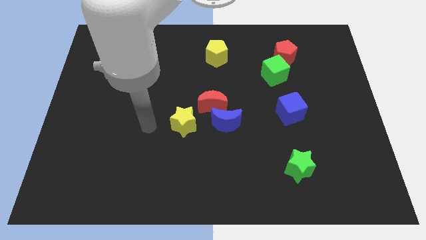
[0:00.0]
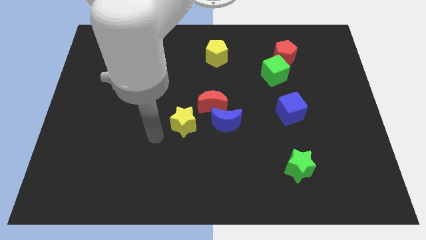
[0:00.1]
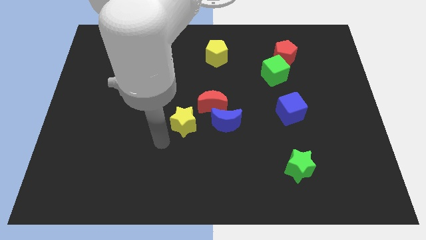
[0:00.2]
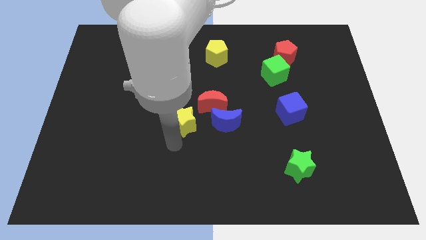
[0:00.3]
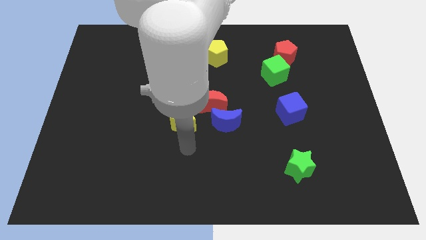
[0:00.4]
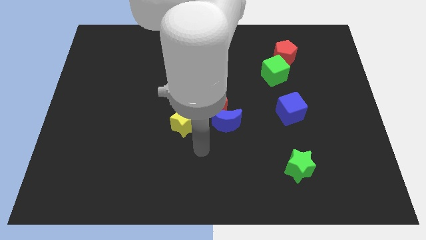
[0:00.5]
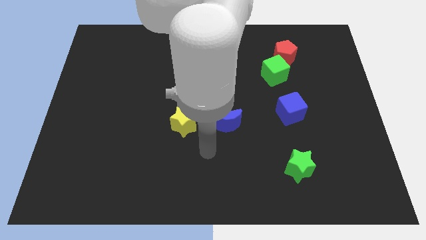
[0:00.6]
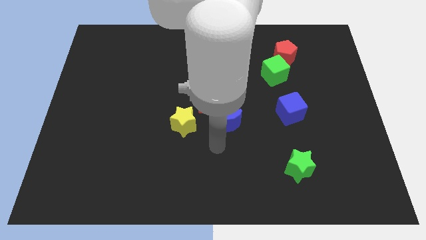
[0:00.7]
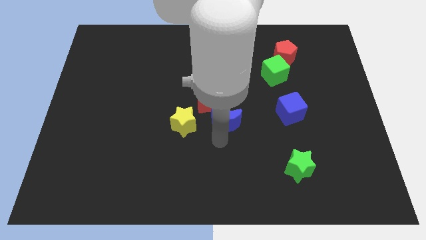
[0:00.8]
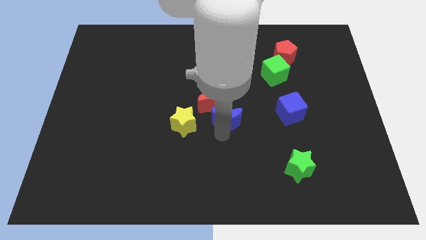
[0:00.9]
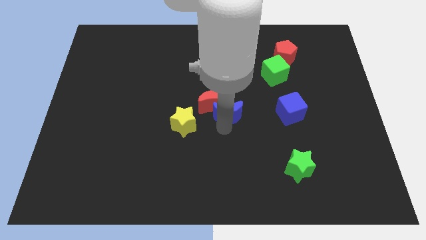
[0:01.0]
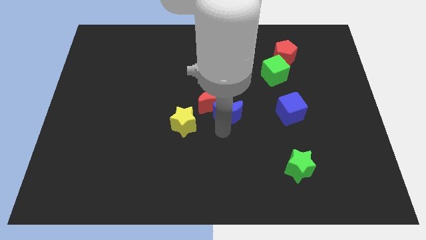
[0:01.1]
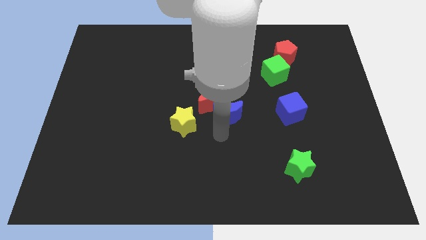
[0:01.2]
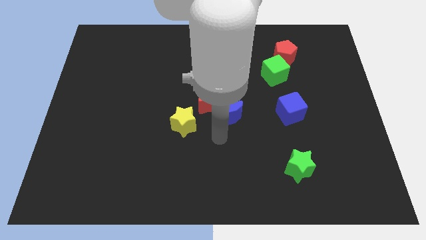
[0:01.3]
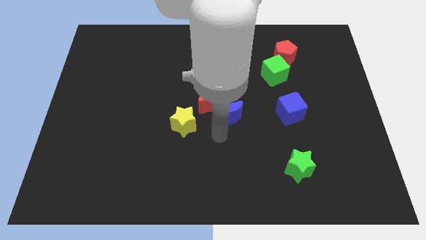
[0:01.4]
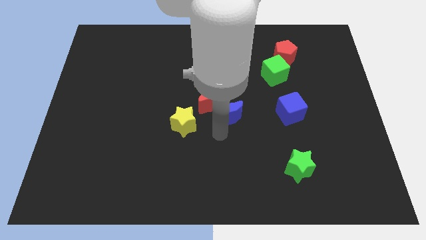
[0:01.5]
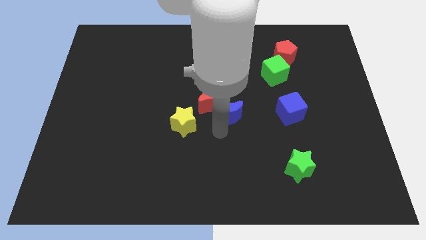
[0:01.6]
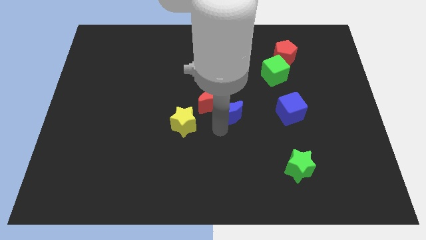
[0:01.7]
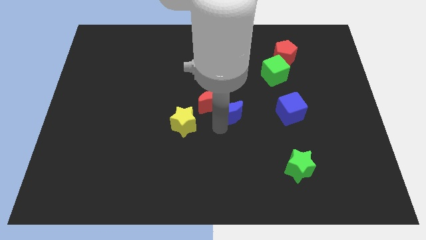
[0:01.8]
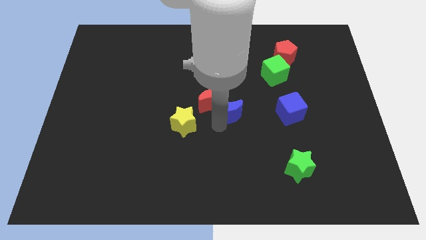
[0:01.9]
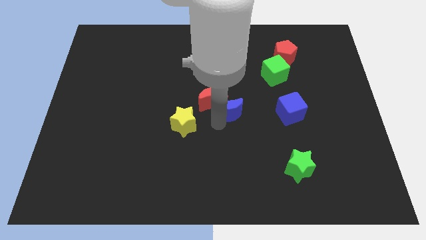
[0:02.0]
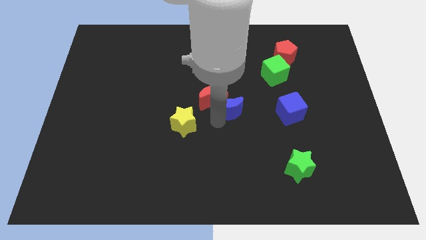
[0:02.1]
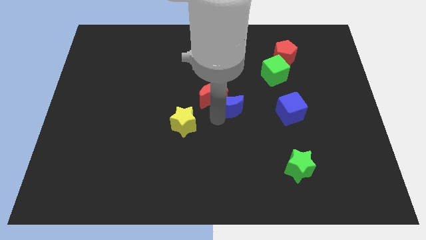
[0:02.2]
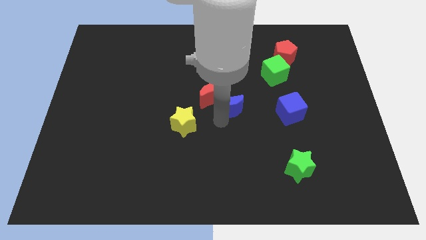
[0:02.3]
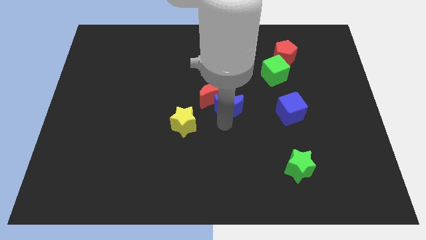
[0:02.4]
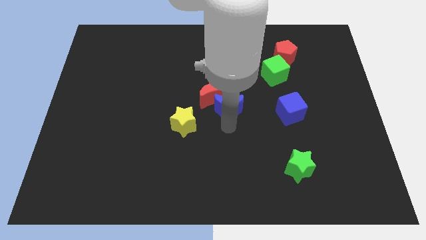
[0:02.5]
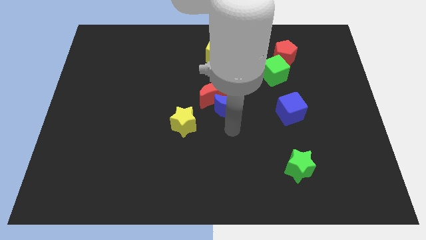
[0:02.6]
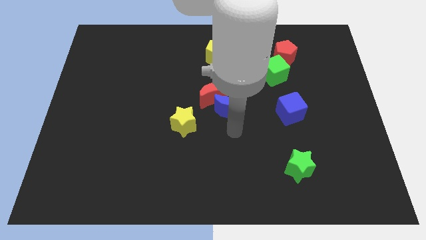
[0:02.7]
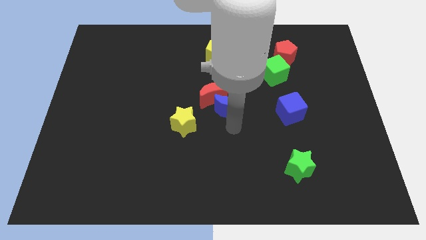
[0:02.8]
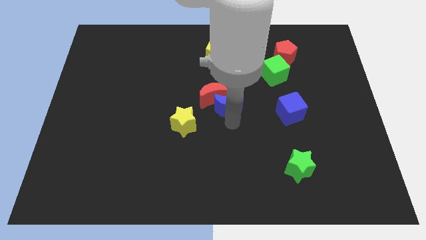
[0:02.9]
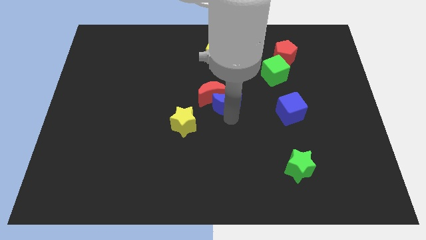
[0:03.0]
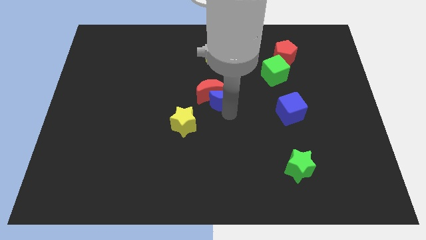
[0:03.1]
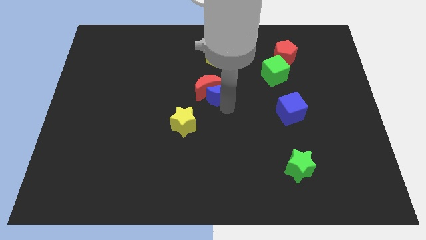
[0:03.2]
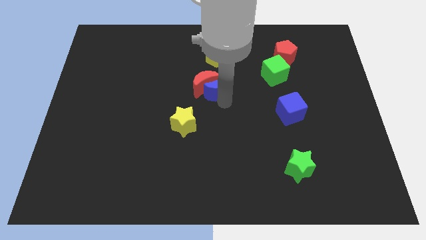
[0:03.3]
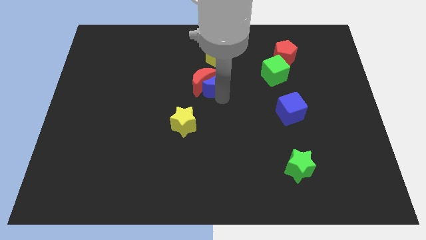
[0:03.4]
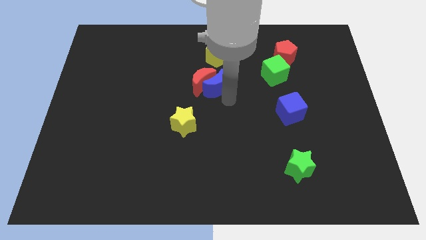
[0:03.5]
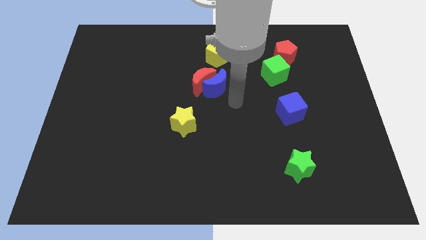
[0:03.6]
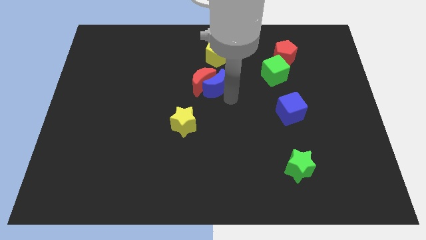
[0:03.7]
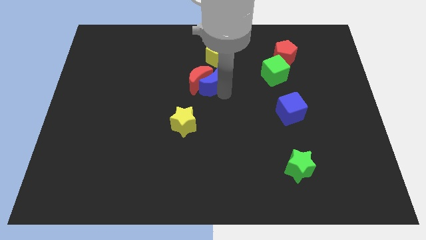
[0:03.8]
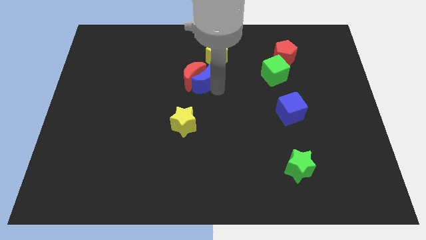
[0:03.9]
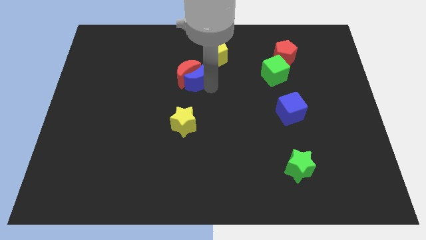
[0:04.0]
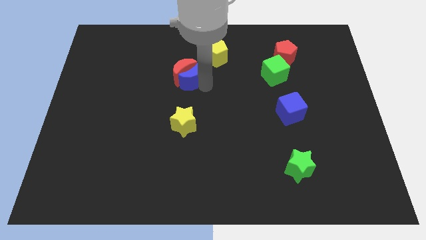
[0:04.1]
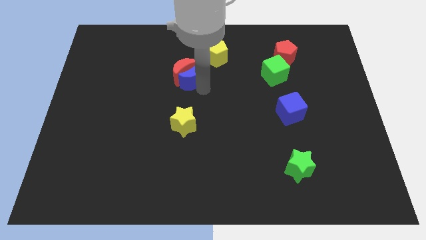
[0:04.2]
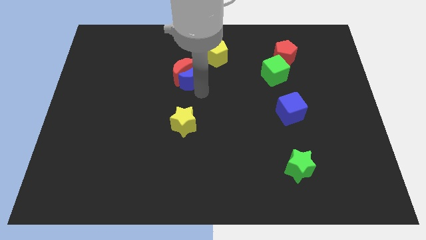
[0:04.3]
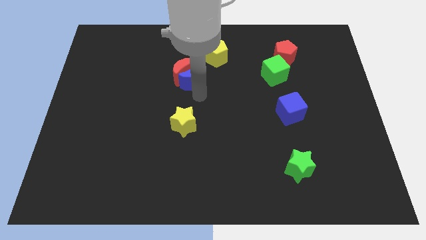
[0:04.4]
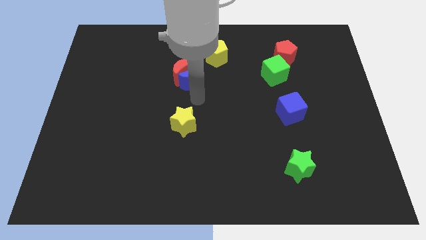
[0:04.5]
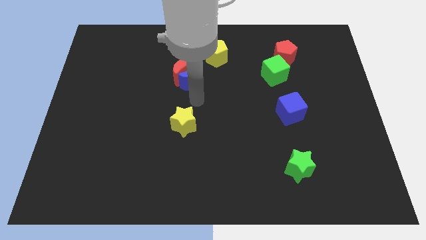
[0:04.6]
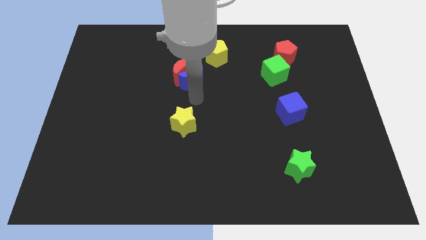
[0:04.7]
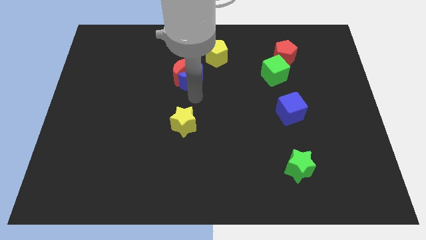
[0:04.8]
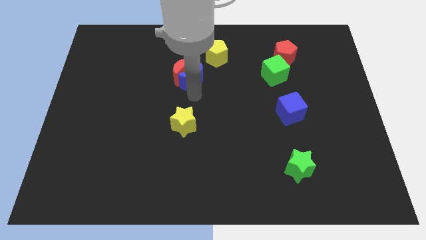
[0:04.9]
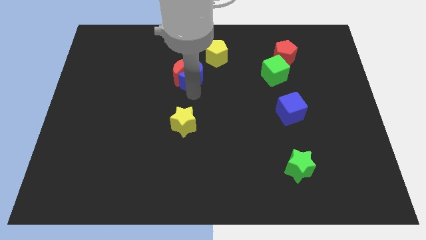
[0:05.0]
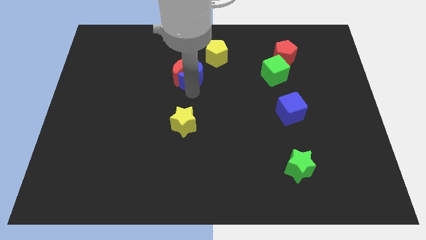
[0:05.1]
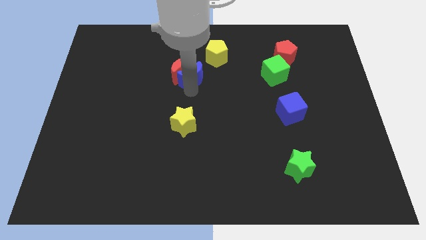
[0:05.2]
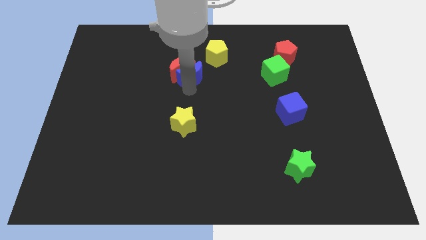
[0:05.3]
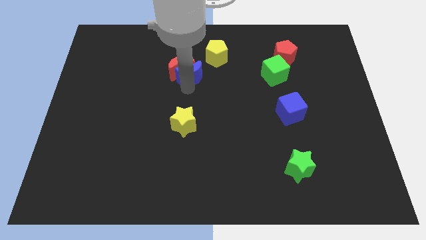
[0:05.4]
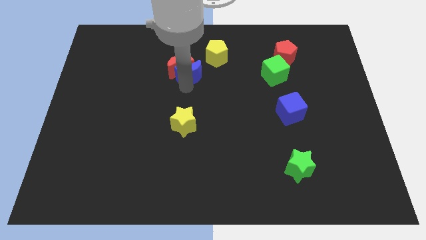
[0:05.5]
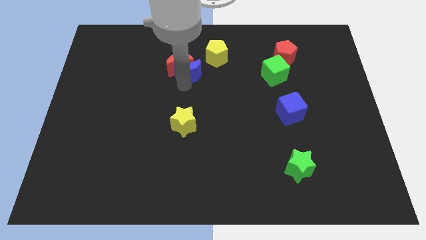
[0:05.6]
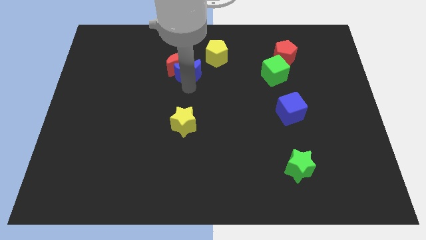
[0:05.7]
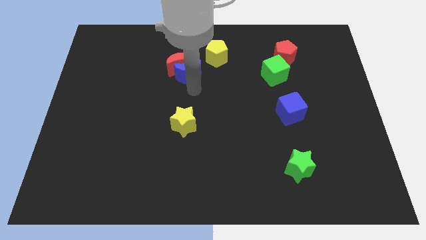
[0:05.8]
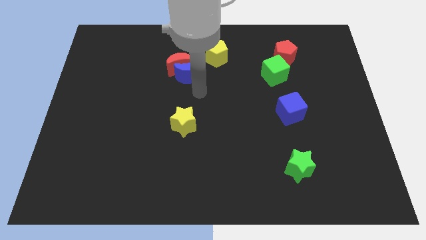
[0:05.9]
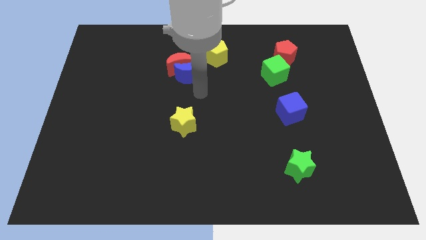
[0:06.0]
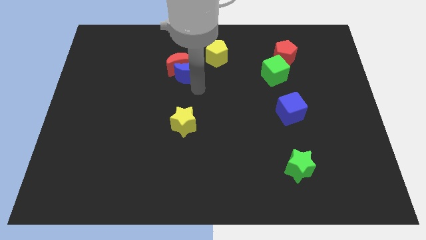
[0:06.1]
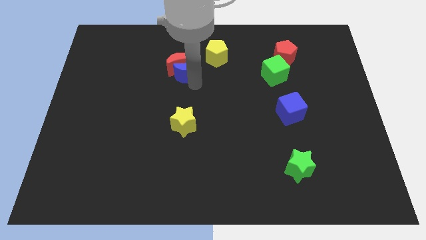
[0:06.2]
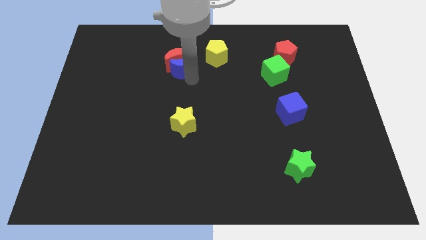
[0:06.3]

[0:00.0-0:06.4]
push the blue moon to the left side of the yellow pentagon

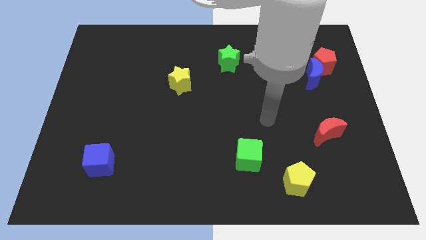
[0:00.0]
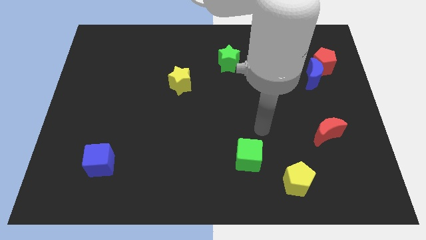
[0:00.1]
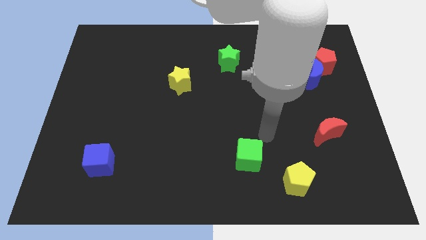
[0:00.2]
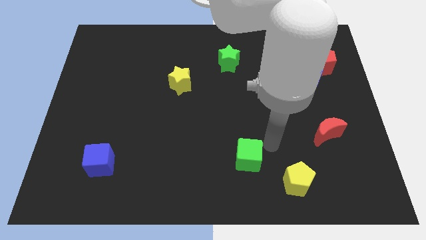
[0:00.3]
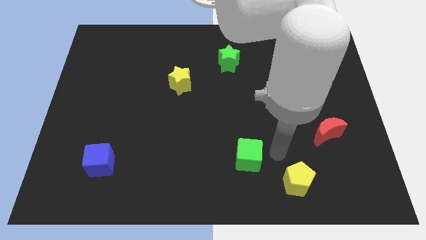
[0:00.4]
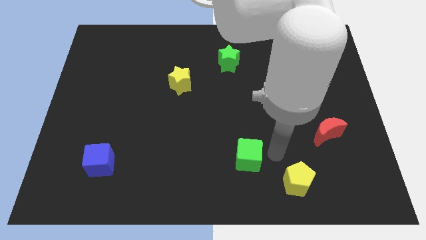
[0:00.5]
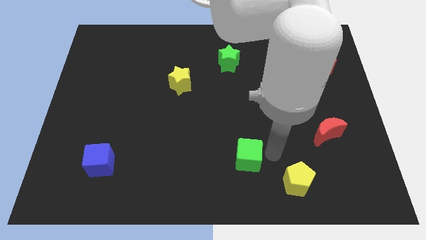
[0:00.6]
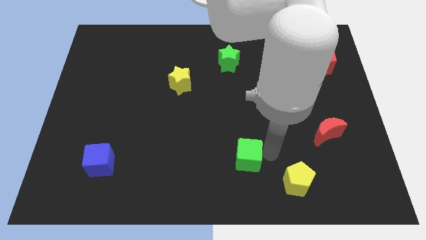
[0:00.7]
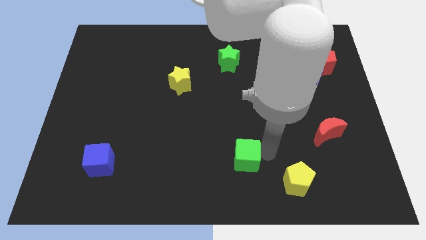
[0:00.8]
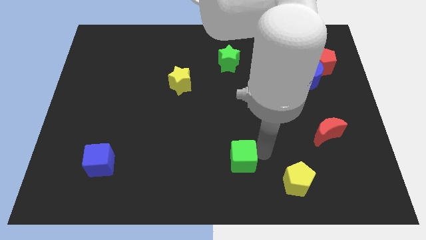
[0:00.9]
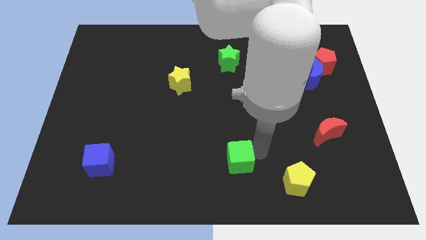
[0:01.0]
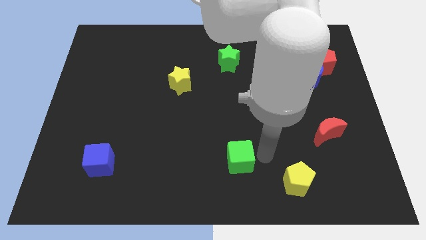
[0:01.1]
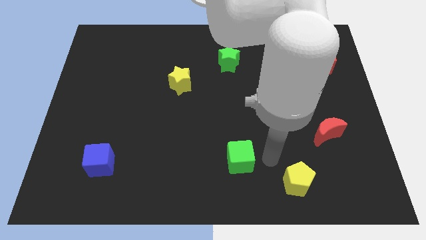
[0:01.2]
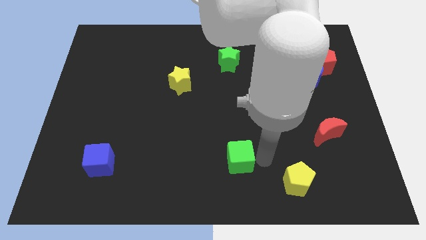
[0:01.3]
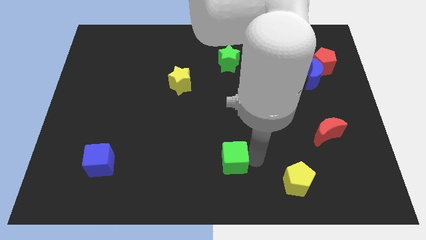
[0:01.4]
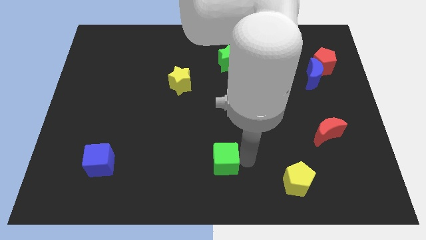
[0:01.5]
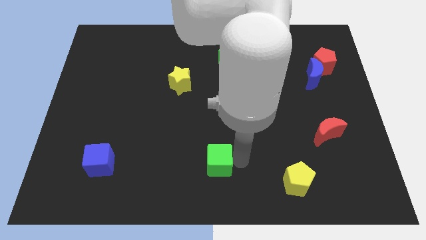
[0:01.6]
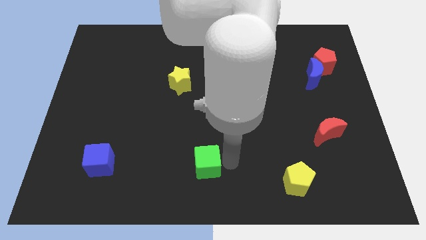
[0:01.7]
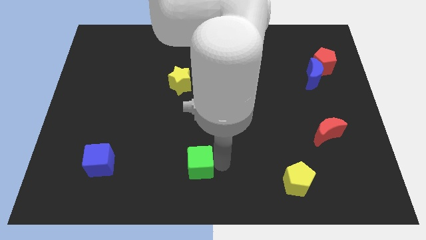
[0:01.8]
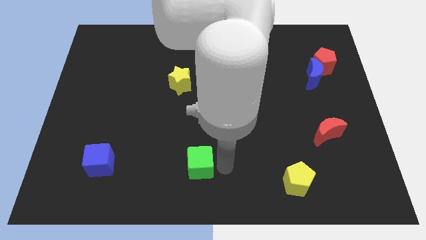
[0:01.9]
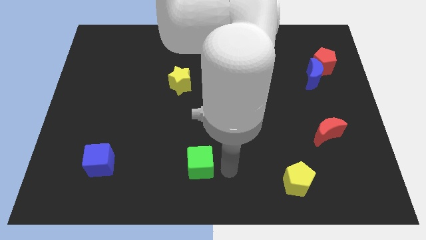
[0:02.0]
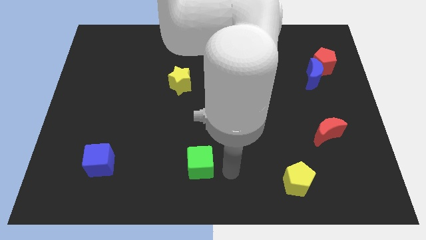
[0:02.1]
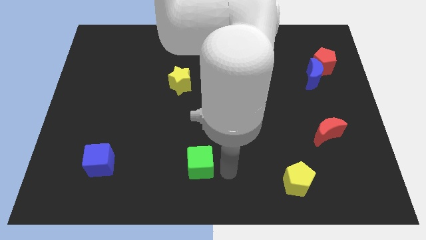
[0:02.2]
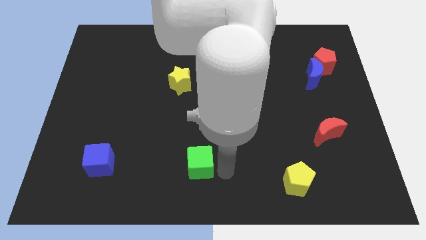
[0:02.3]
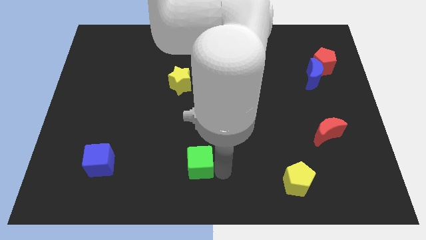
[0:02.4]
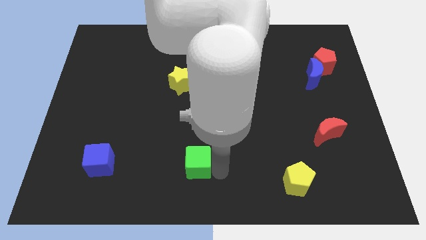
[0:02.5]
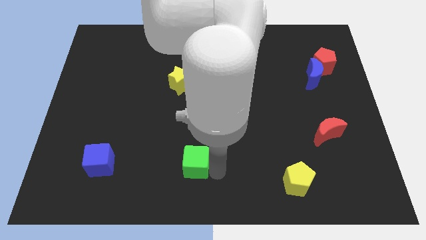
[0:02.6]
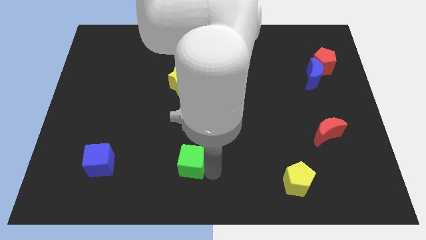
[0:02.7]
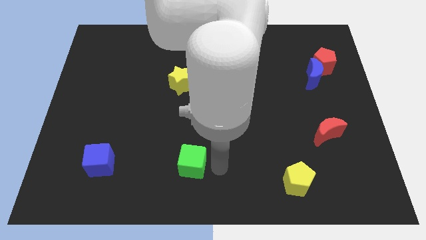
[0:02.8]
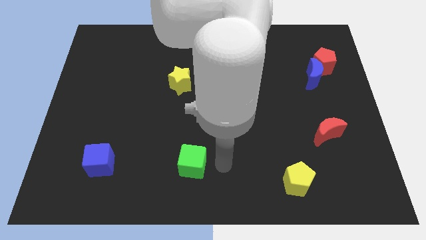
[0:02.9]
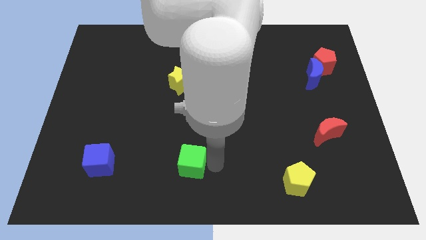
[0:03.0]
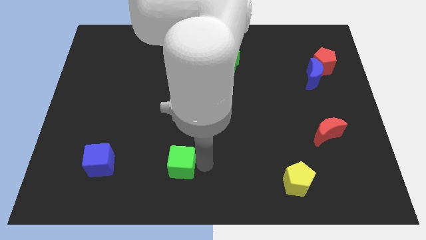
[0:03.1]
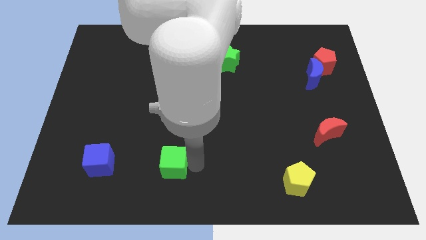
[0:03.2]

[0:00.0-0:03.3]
put the green cube to the right side of the blue cube
